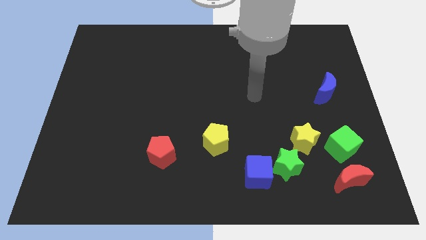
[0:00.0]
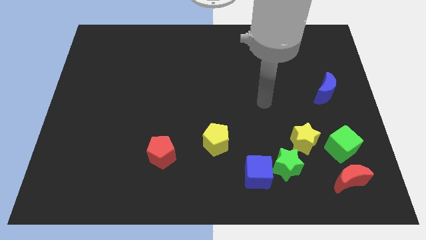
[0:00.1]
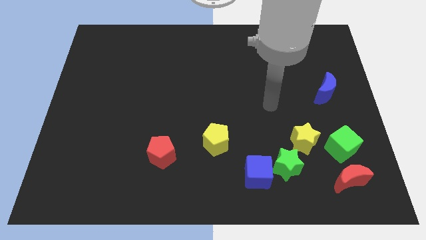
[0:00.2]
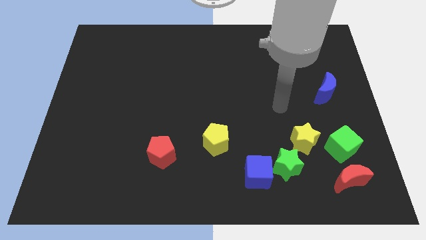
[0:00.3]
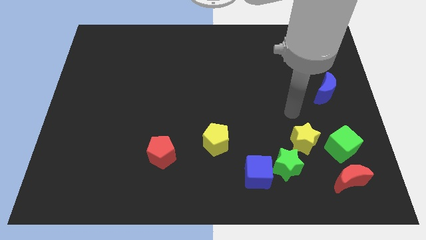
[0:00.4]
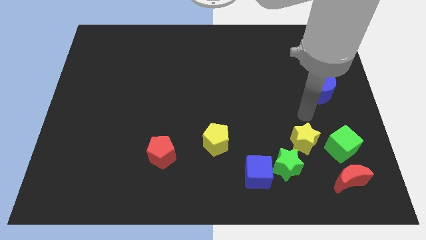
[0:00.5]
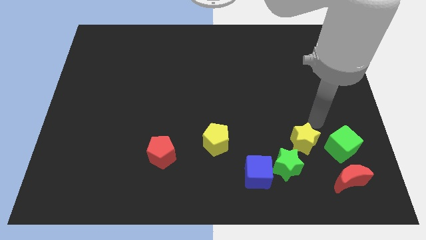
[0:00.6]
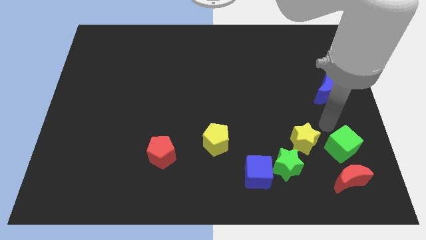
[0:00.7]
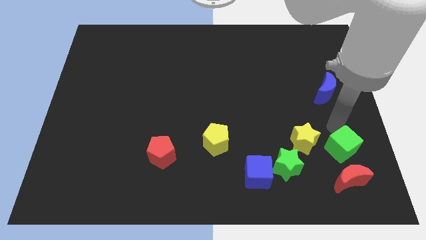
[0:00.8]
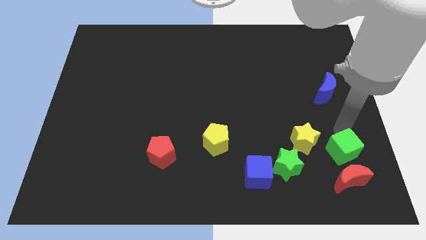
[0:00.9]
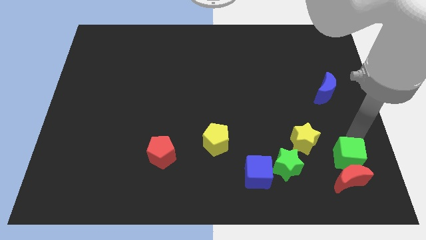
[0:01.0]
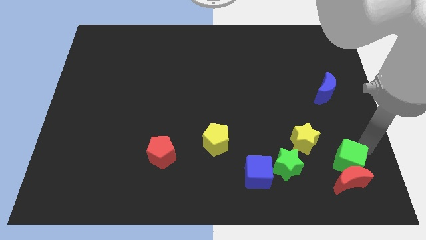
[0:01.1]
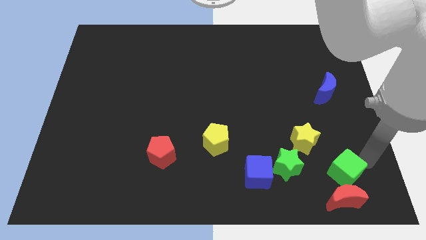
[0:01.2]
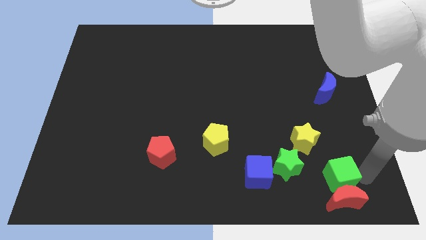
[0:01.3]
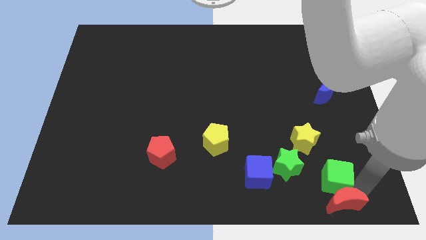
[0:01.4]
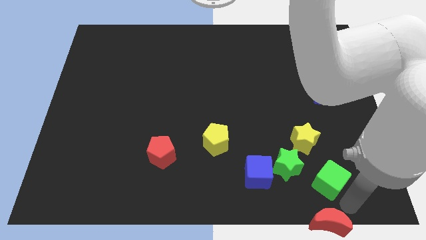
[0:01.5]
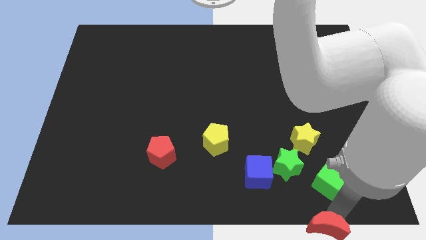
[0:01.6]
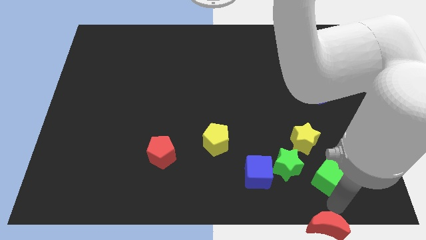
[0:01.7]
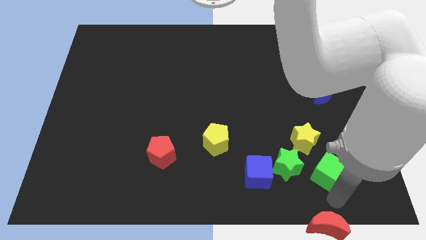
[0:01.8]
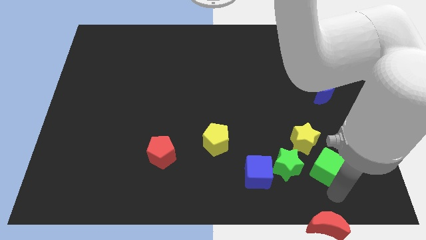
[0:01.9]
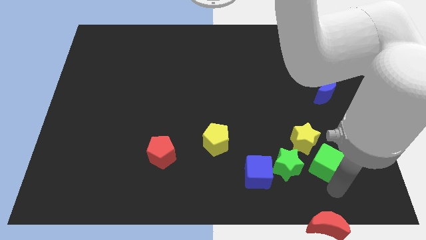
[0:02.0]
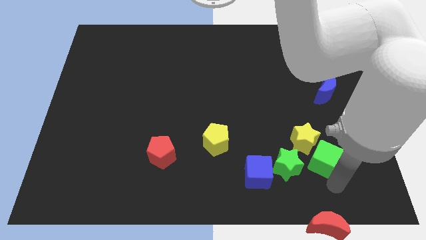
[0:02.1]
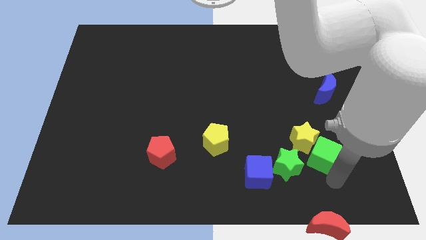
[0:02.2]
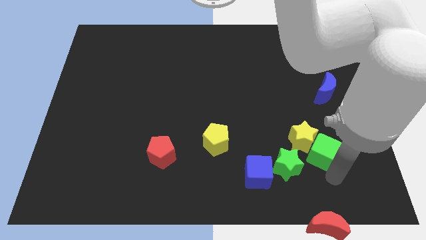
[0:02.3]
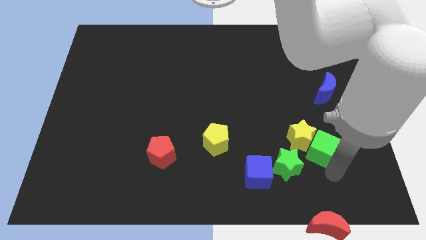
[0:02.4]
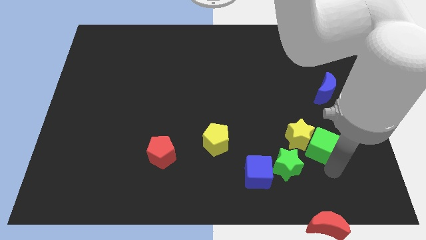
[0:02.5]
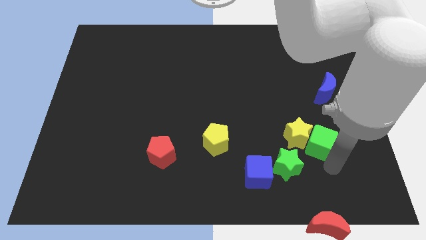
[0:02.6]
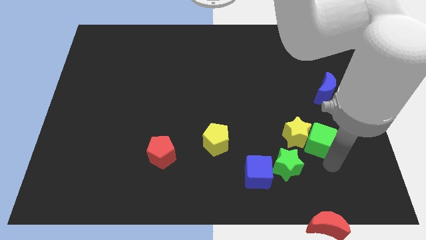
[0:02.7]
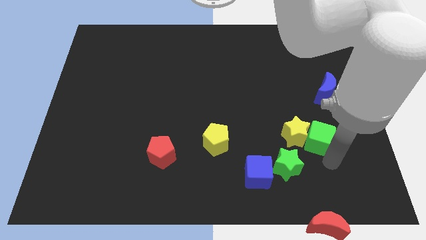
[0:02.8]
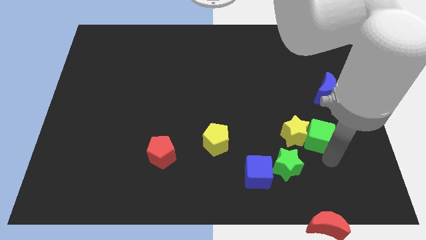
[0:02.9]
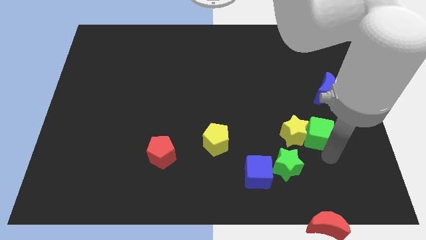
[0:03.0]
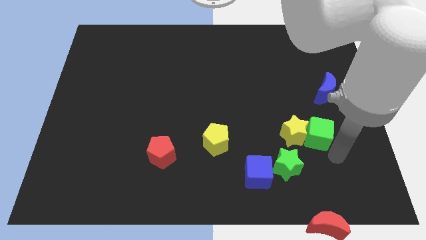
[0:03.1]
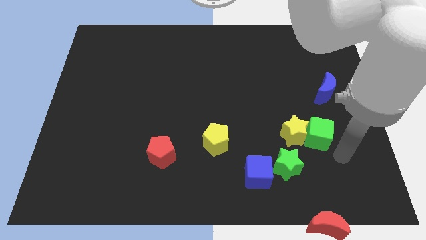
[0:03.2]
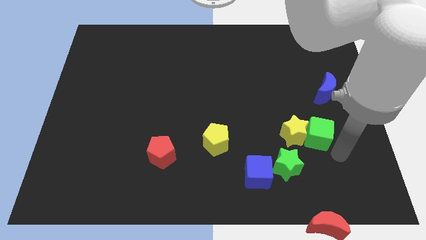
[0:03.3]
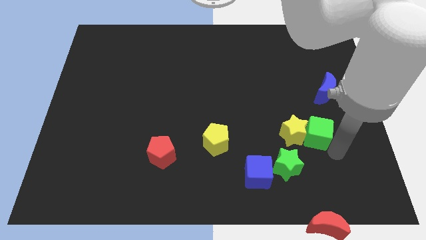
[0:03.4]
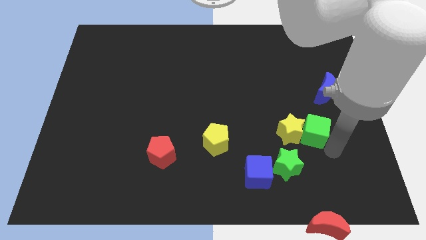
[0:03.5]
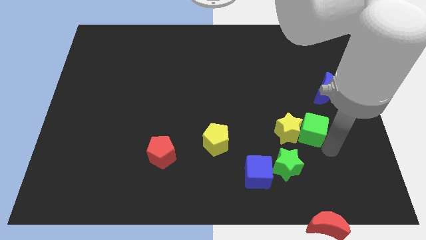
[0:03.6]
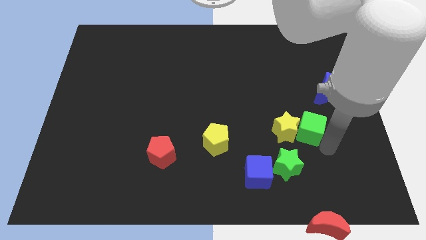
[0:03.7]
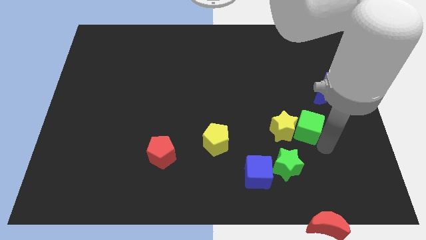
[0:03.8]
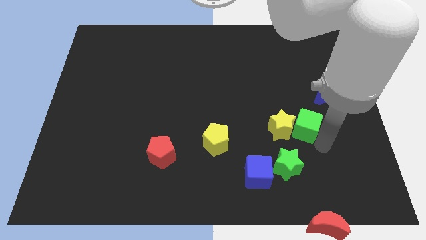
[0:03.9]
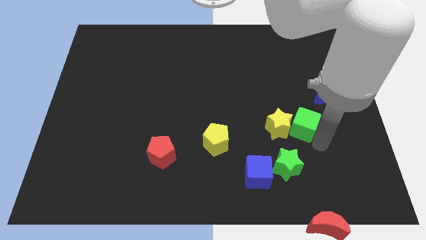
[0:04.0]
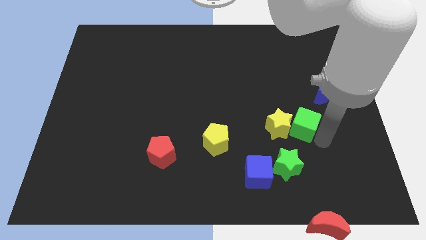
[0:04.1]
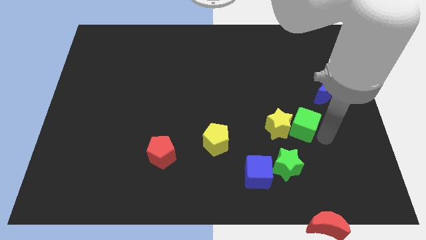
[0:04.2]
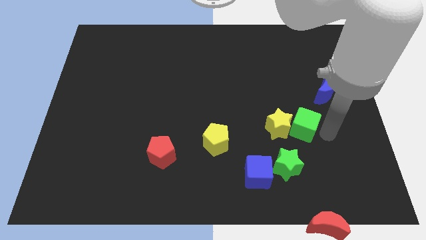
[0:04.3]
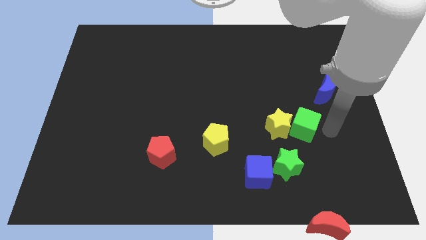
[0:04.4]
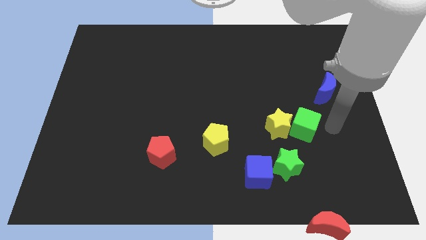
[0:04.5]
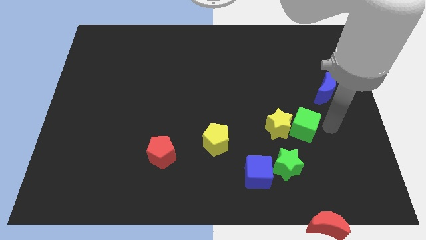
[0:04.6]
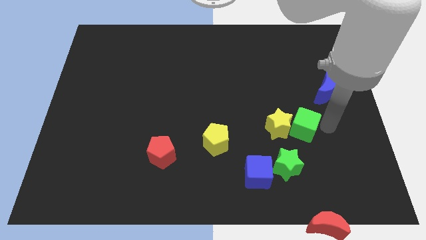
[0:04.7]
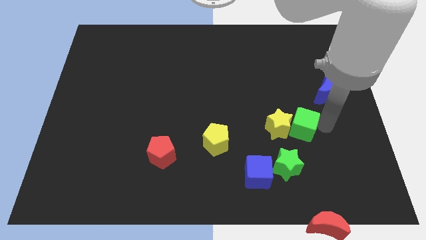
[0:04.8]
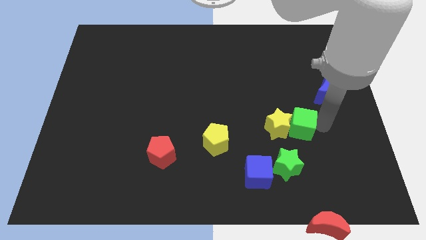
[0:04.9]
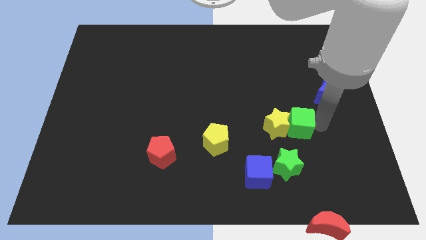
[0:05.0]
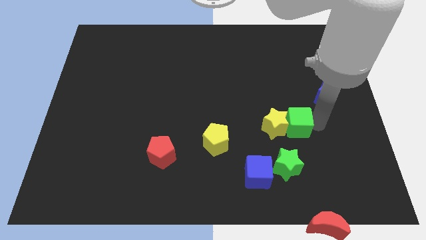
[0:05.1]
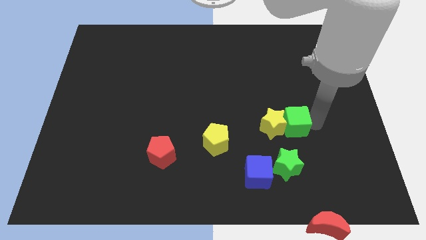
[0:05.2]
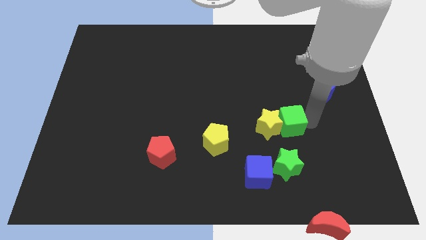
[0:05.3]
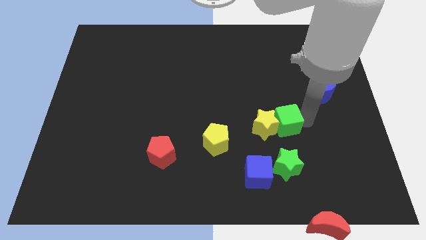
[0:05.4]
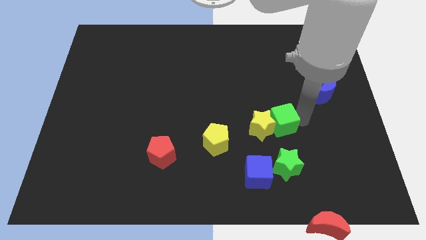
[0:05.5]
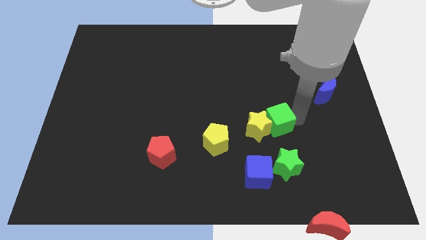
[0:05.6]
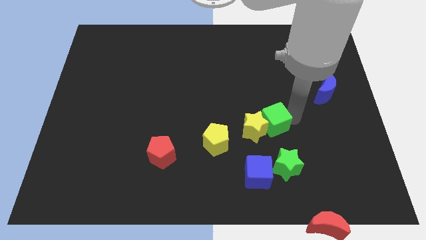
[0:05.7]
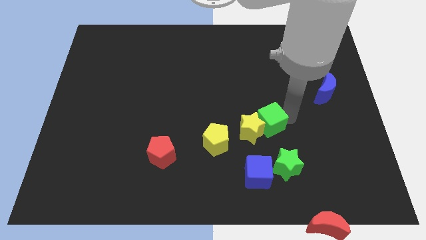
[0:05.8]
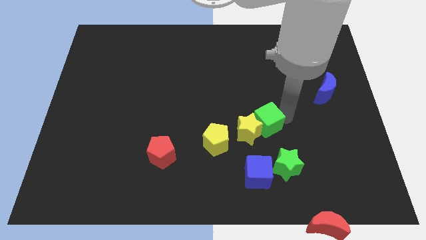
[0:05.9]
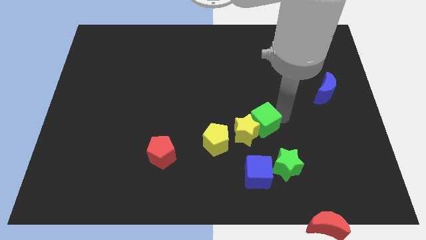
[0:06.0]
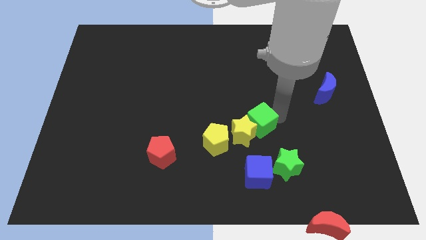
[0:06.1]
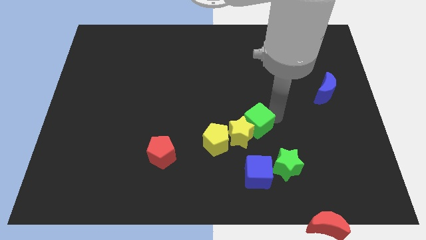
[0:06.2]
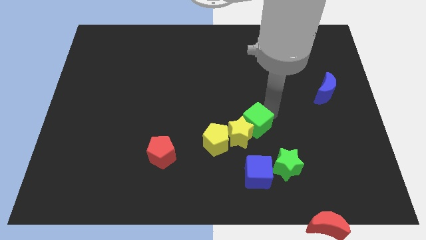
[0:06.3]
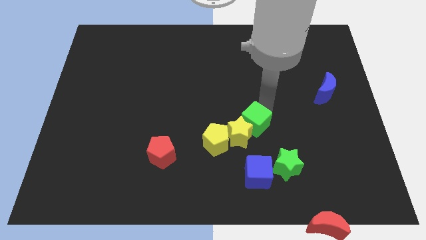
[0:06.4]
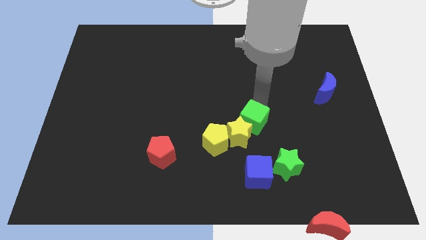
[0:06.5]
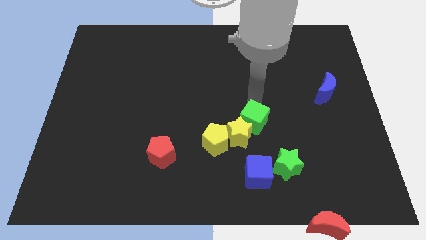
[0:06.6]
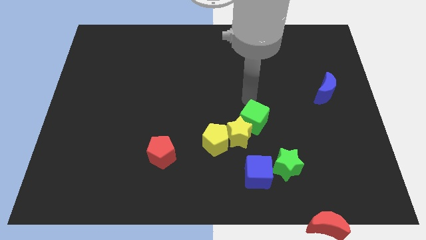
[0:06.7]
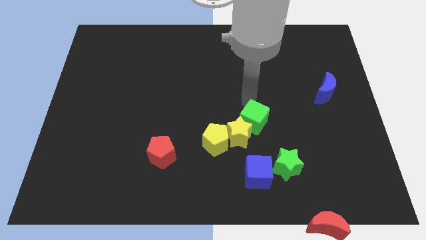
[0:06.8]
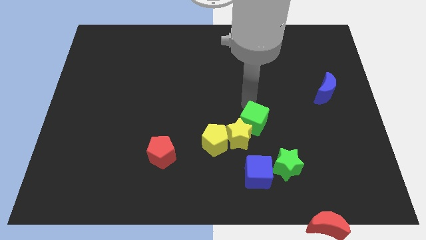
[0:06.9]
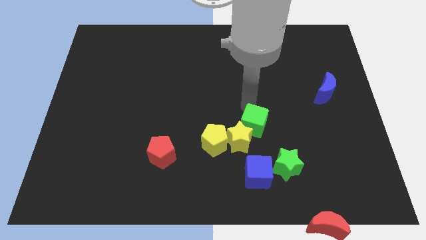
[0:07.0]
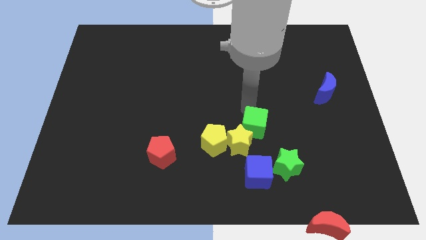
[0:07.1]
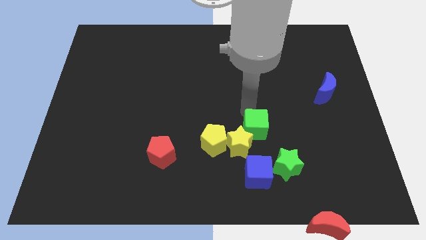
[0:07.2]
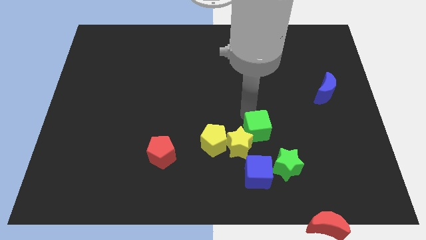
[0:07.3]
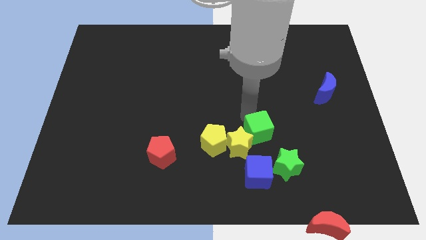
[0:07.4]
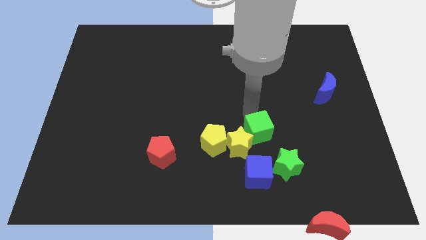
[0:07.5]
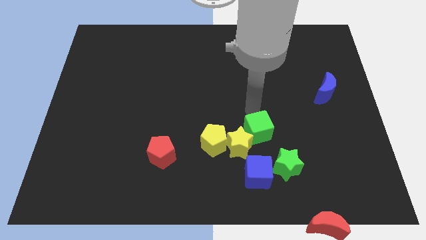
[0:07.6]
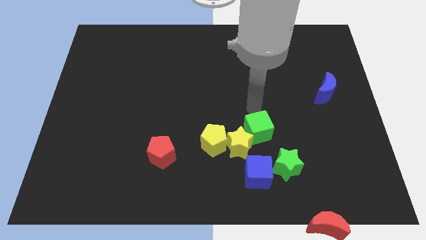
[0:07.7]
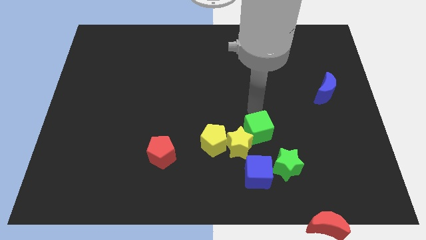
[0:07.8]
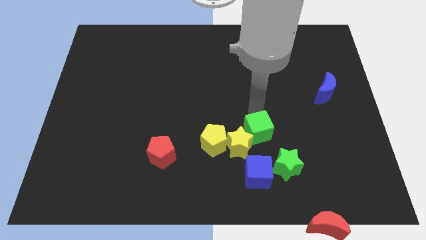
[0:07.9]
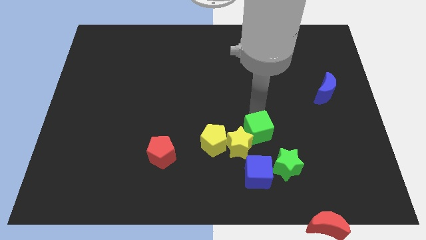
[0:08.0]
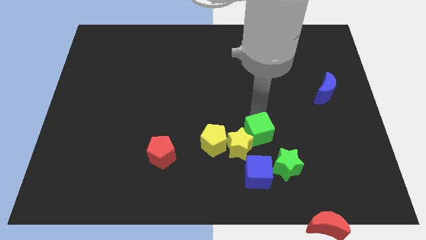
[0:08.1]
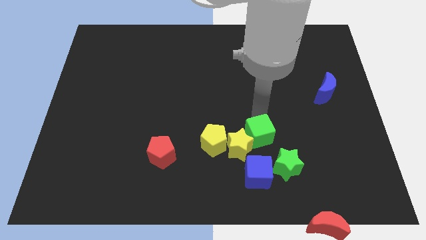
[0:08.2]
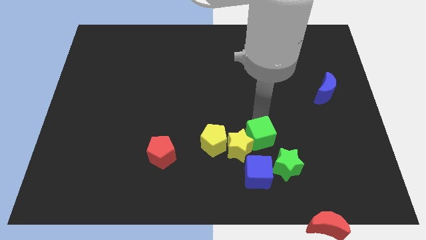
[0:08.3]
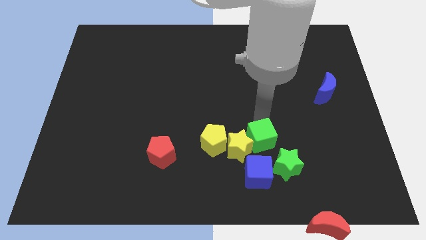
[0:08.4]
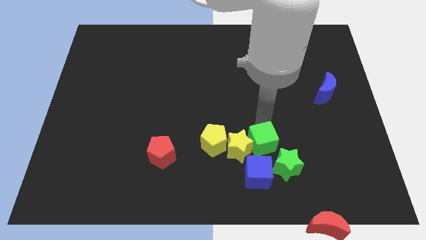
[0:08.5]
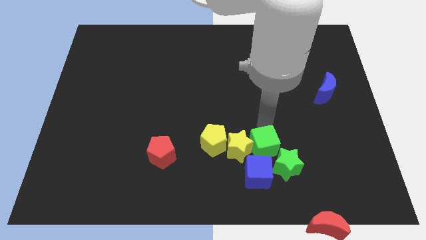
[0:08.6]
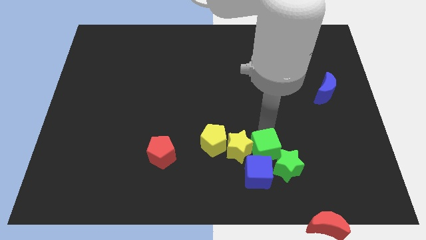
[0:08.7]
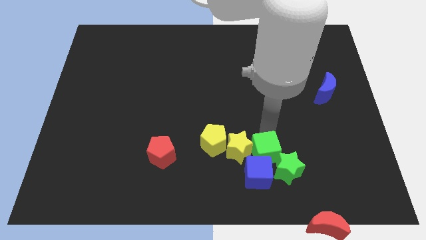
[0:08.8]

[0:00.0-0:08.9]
push the green cube to the blue cube
